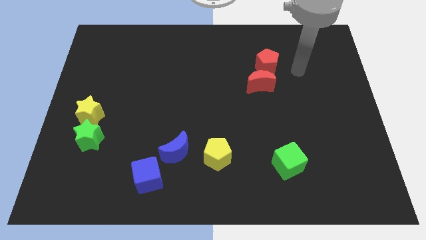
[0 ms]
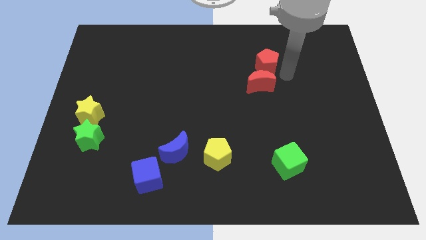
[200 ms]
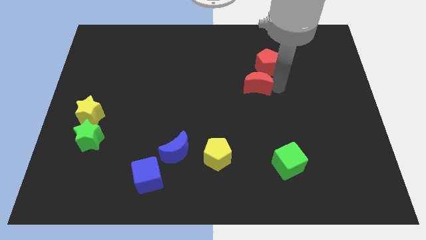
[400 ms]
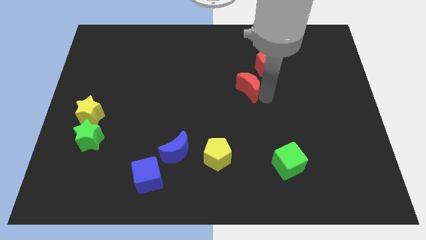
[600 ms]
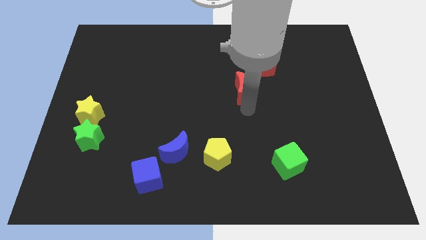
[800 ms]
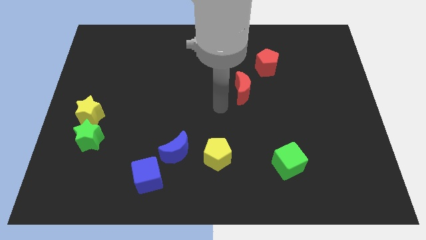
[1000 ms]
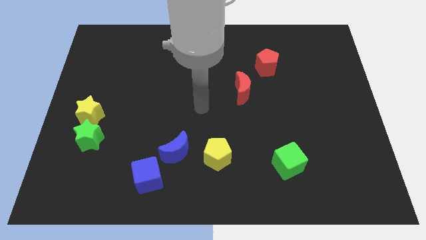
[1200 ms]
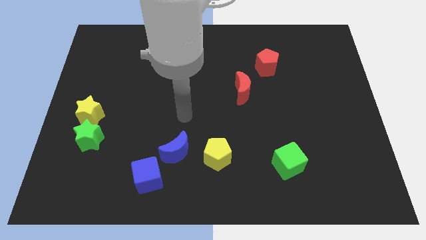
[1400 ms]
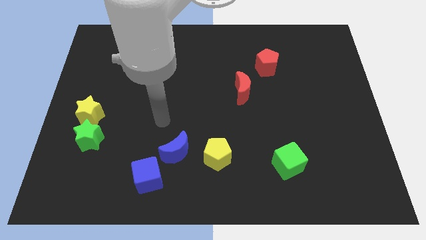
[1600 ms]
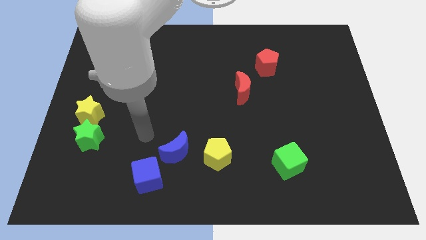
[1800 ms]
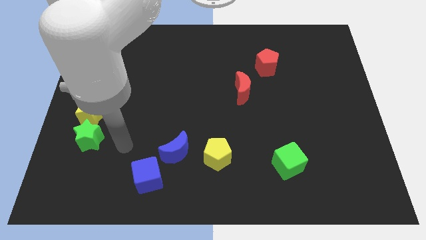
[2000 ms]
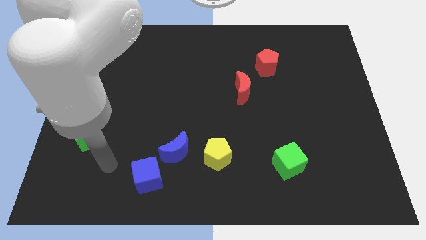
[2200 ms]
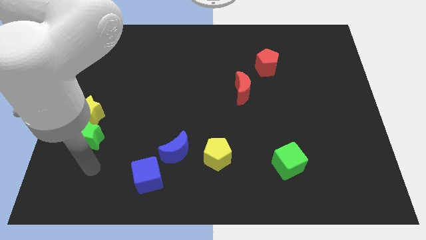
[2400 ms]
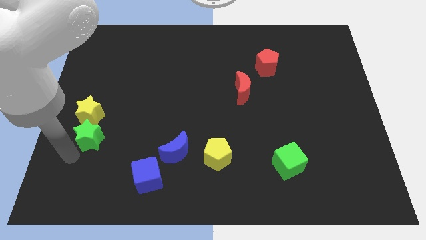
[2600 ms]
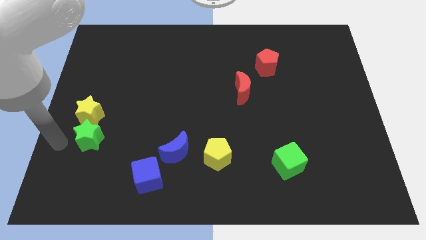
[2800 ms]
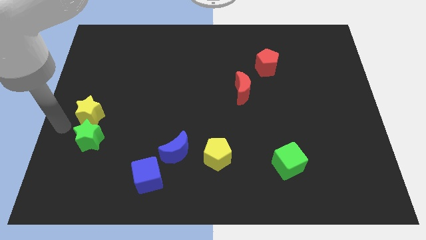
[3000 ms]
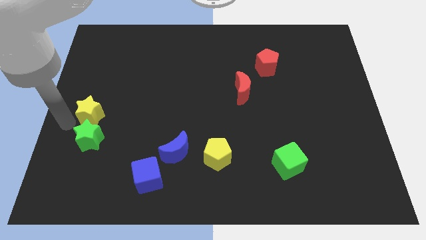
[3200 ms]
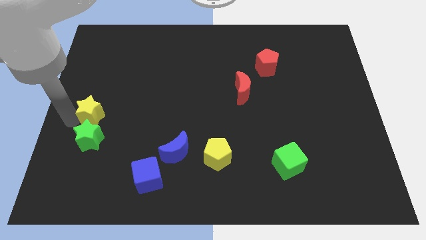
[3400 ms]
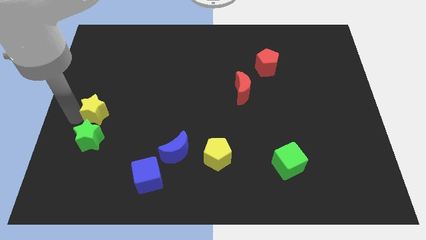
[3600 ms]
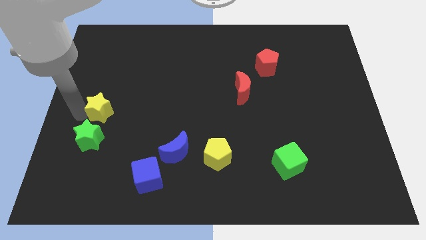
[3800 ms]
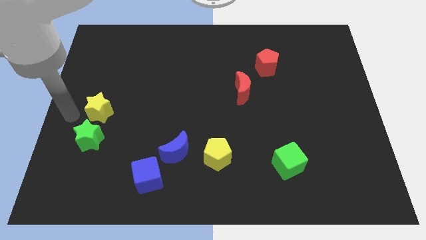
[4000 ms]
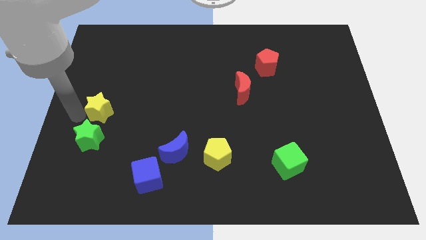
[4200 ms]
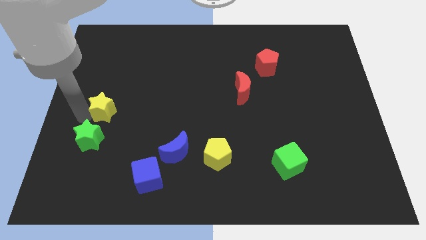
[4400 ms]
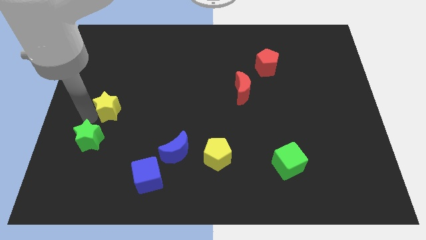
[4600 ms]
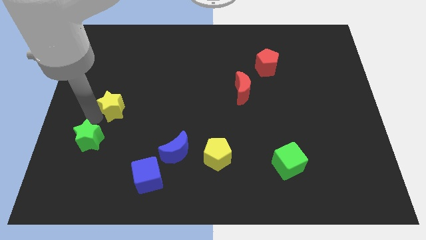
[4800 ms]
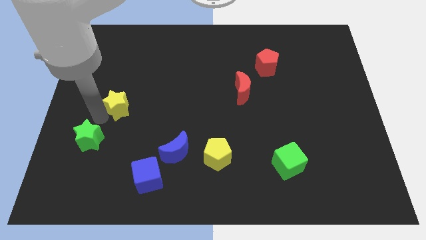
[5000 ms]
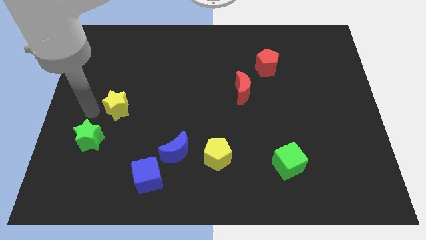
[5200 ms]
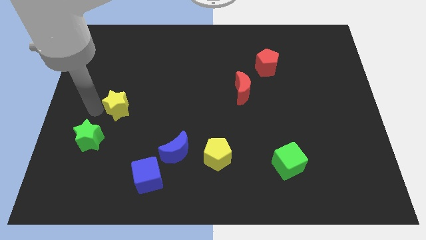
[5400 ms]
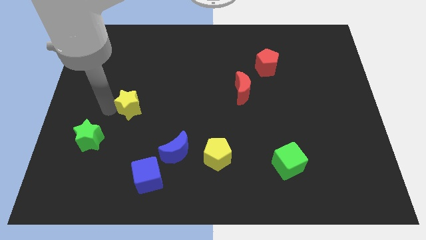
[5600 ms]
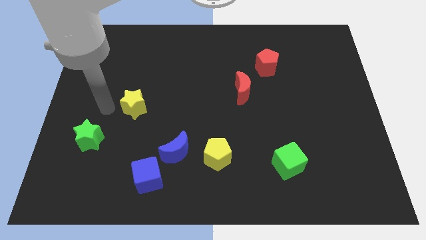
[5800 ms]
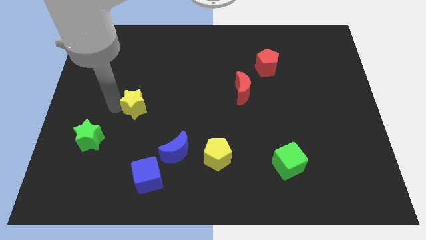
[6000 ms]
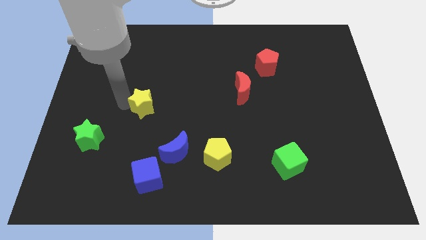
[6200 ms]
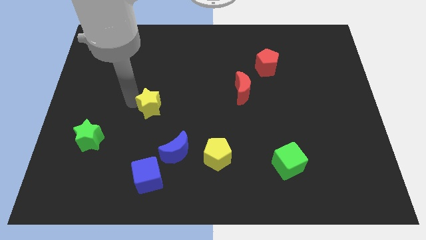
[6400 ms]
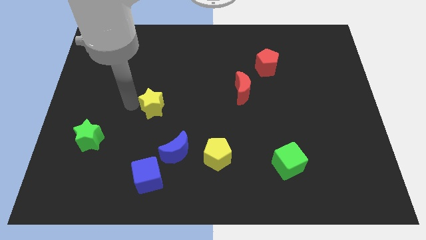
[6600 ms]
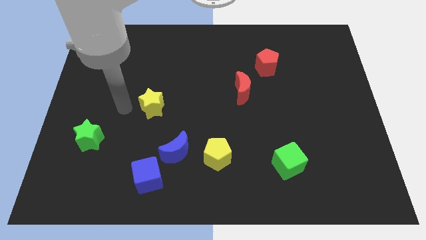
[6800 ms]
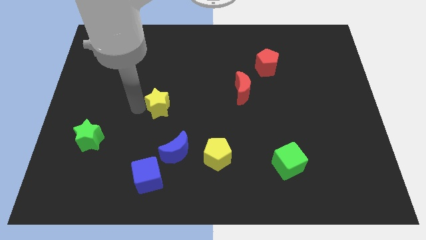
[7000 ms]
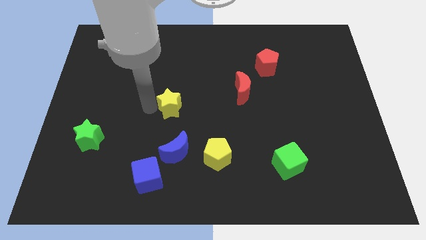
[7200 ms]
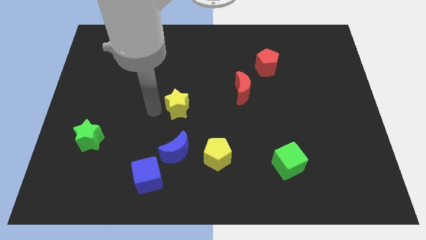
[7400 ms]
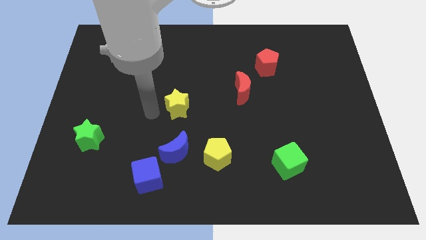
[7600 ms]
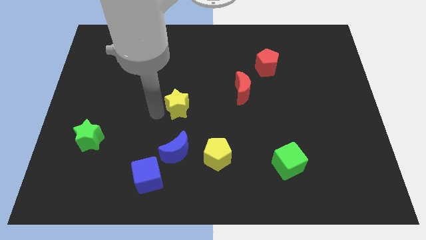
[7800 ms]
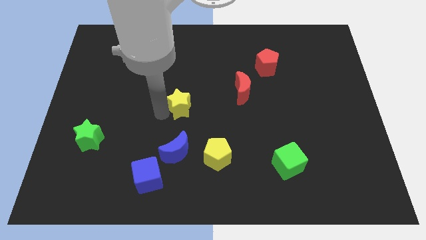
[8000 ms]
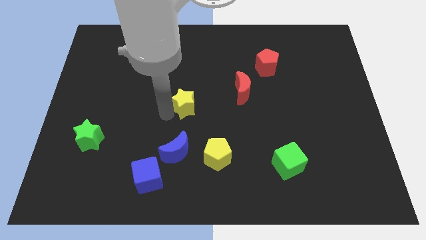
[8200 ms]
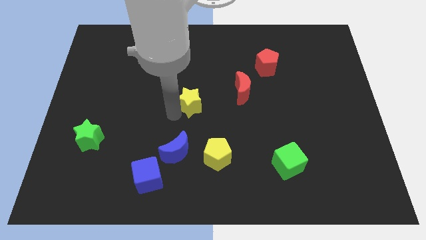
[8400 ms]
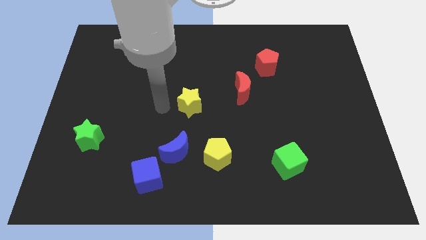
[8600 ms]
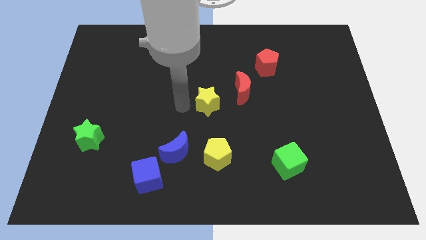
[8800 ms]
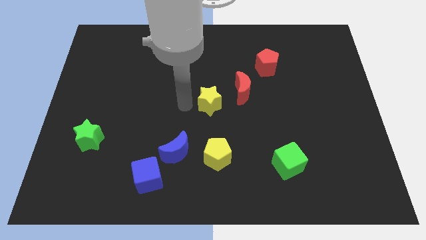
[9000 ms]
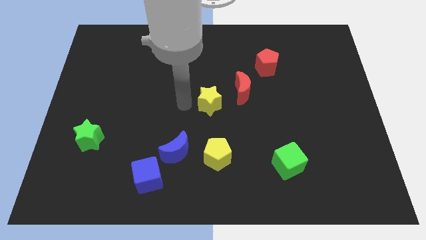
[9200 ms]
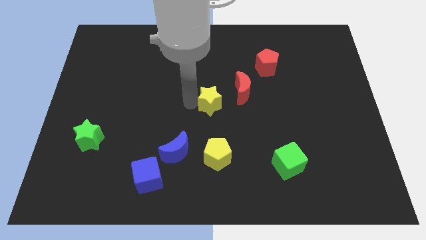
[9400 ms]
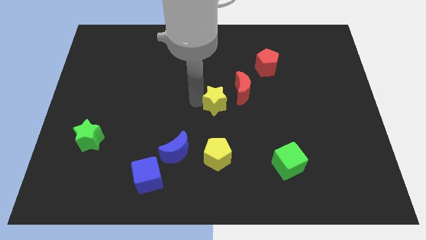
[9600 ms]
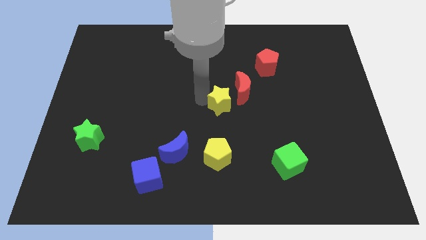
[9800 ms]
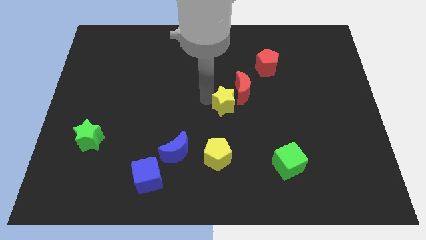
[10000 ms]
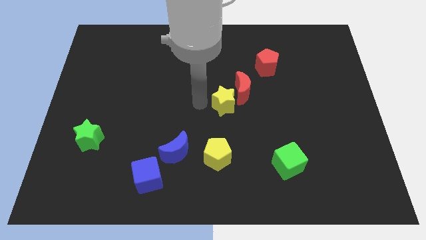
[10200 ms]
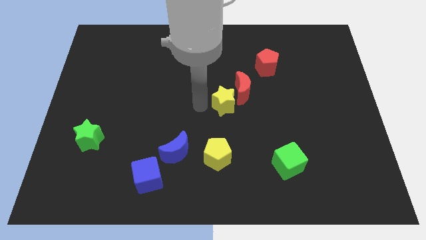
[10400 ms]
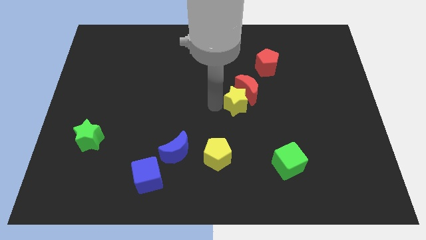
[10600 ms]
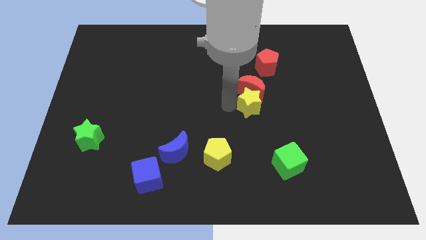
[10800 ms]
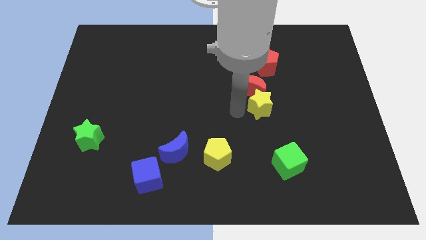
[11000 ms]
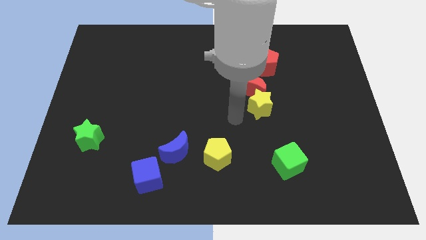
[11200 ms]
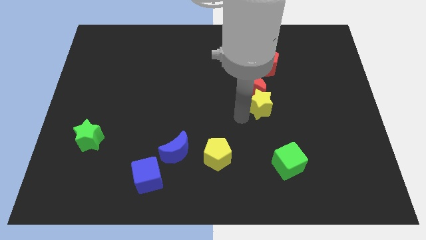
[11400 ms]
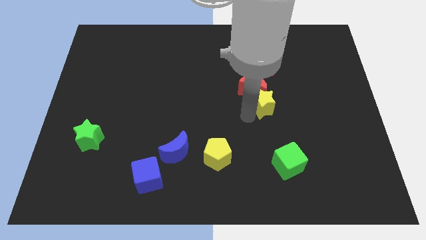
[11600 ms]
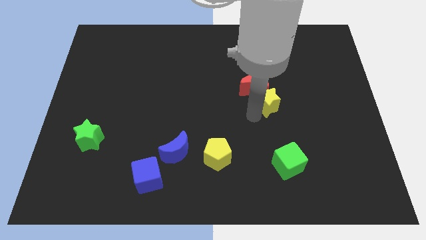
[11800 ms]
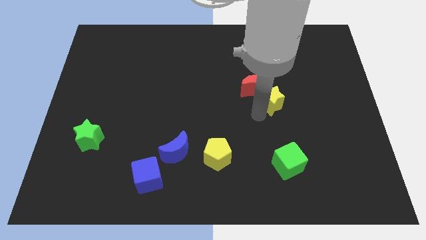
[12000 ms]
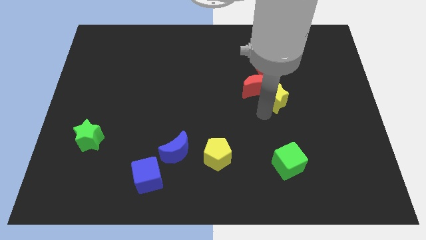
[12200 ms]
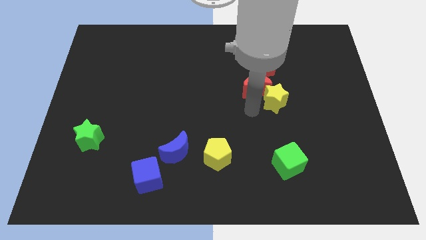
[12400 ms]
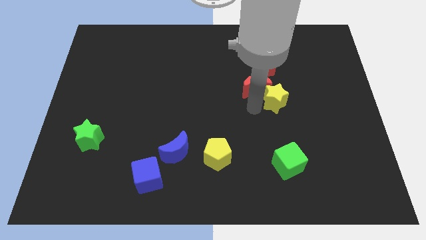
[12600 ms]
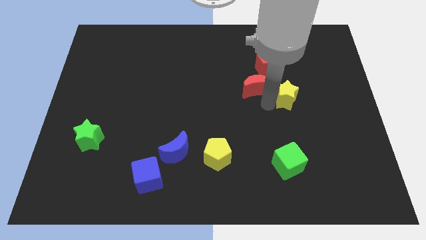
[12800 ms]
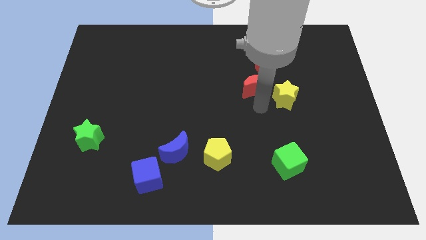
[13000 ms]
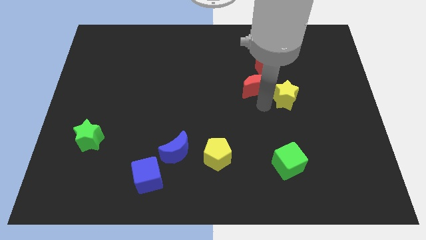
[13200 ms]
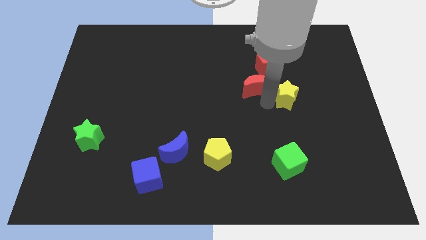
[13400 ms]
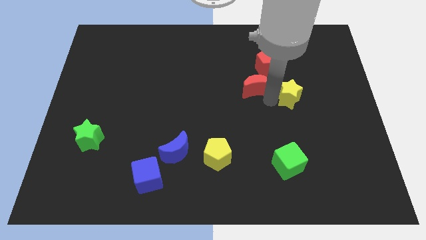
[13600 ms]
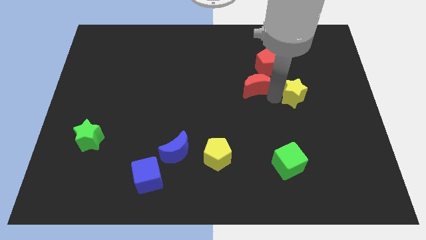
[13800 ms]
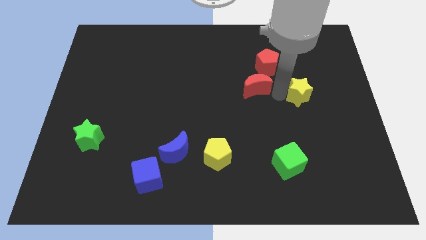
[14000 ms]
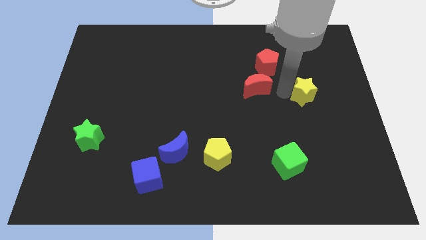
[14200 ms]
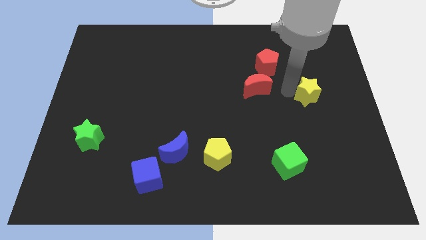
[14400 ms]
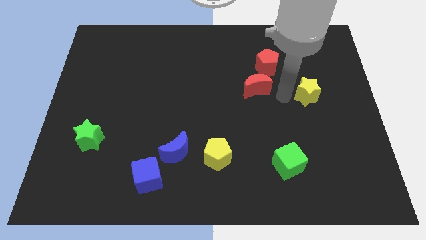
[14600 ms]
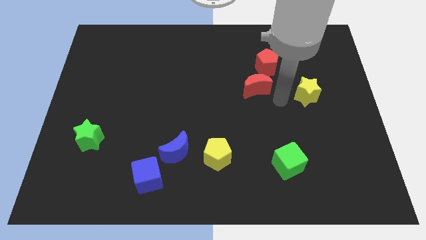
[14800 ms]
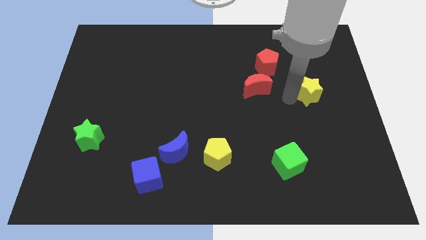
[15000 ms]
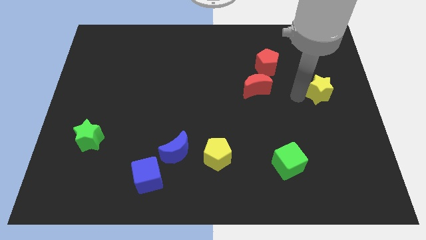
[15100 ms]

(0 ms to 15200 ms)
put the yellow star to the right side of the board

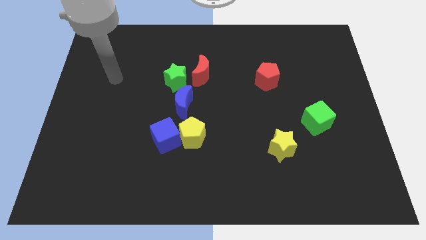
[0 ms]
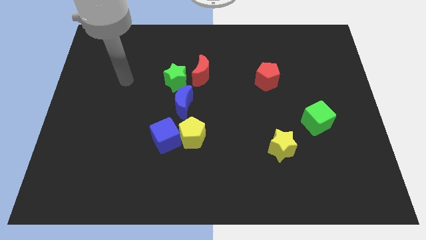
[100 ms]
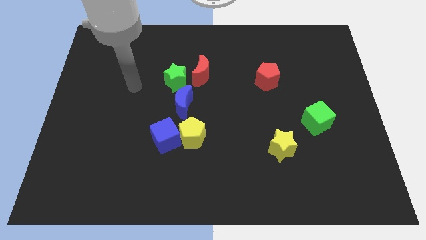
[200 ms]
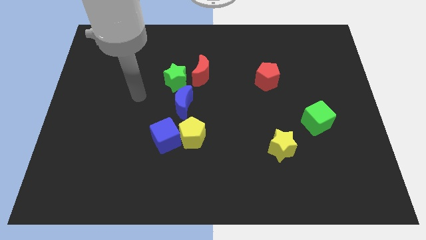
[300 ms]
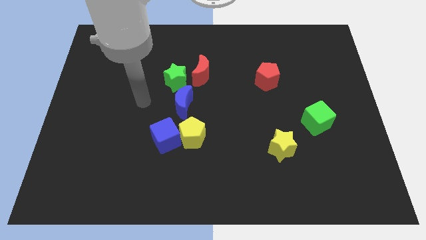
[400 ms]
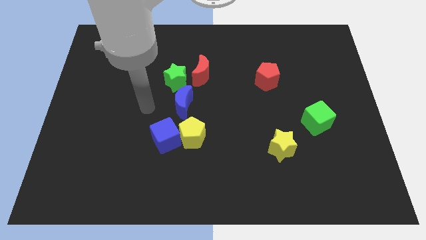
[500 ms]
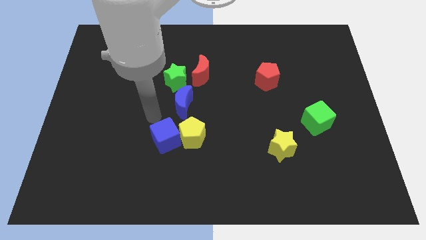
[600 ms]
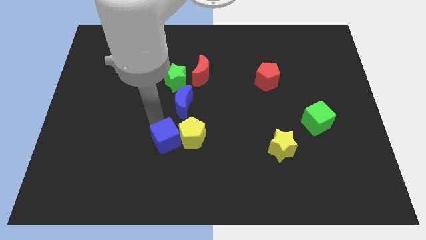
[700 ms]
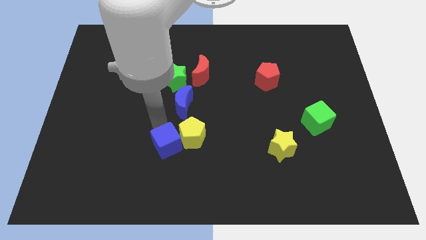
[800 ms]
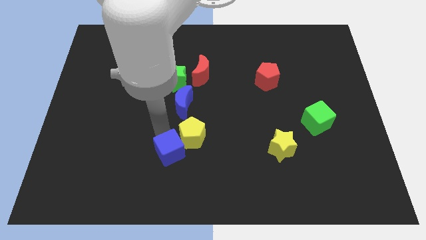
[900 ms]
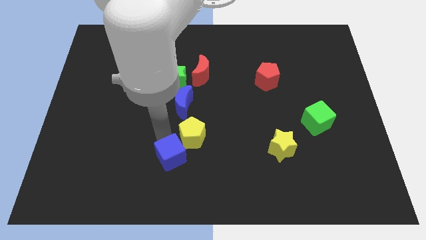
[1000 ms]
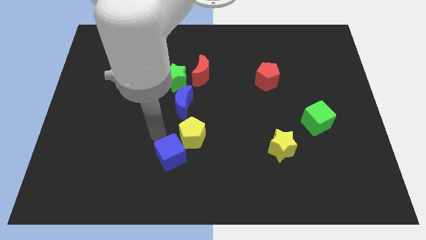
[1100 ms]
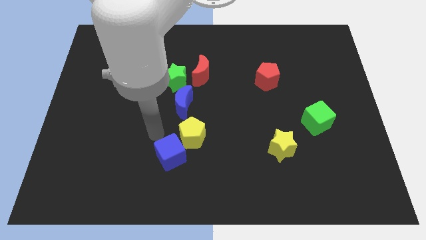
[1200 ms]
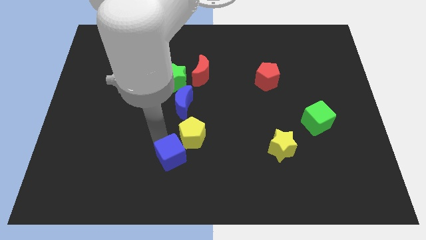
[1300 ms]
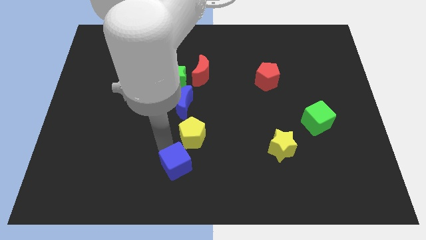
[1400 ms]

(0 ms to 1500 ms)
move the blue cube to the bottom side
